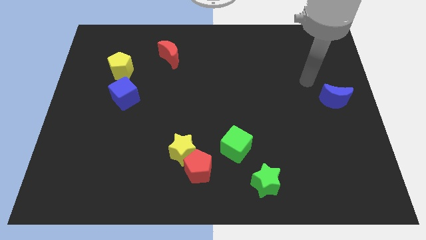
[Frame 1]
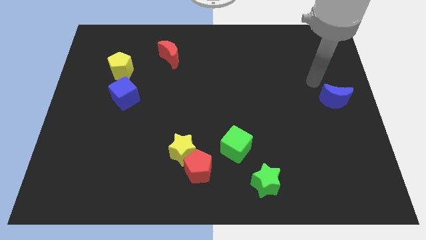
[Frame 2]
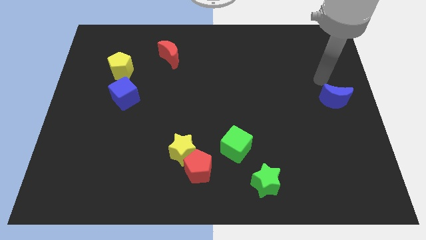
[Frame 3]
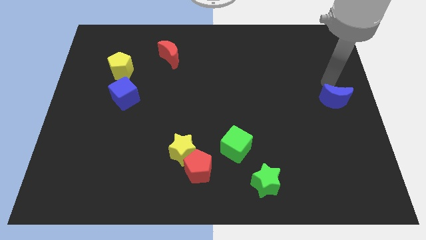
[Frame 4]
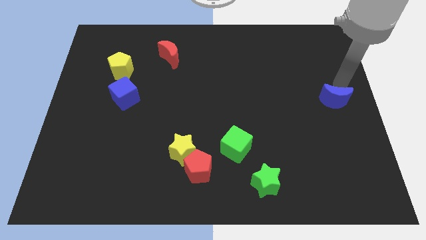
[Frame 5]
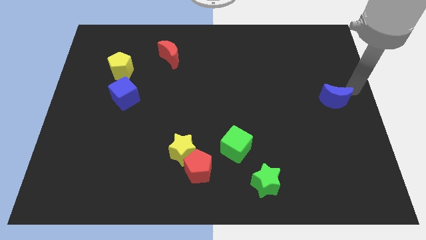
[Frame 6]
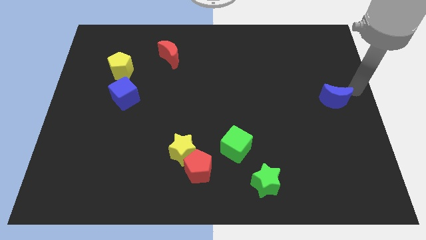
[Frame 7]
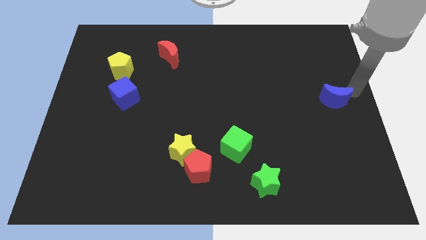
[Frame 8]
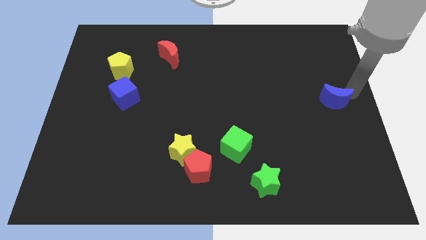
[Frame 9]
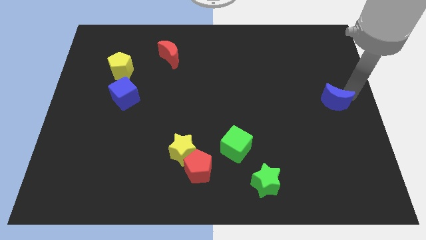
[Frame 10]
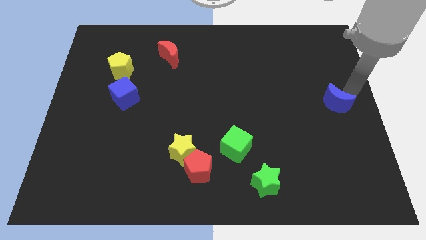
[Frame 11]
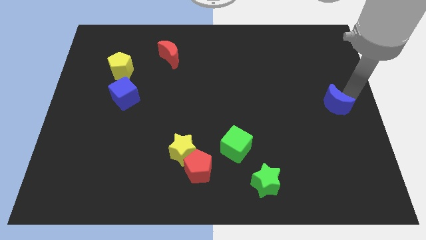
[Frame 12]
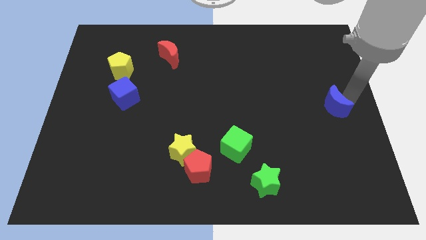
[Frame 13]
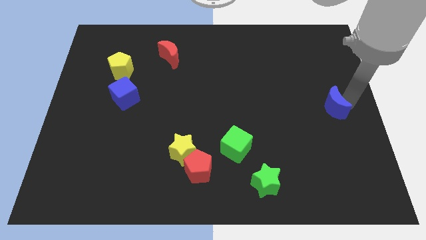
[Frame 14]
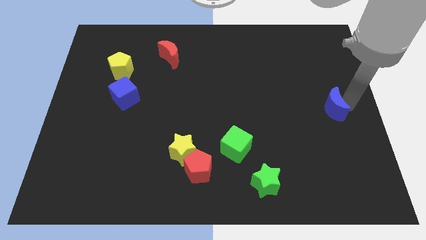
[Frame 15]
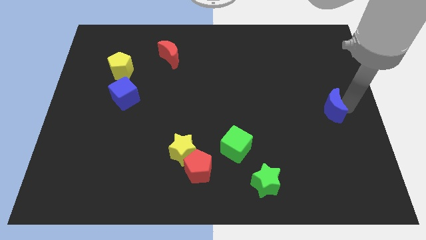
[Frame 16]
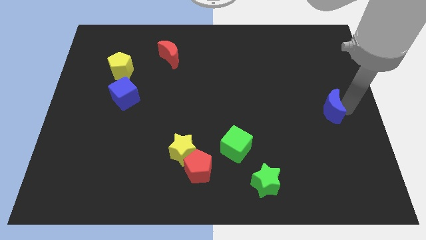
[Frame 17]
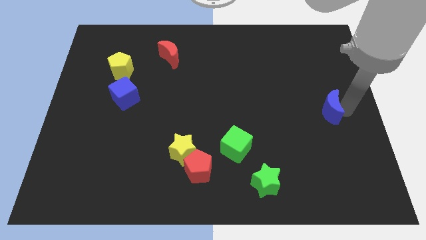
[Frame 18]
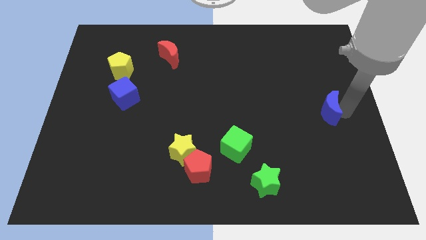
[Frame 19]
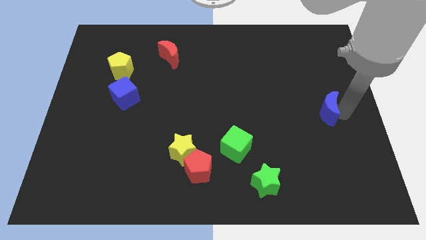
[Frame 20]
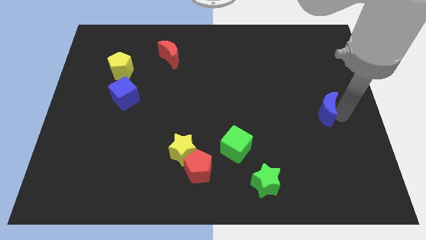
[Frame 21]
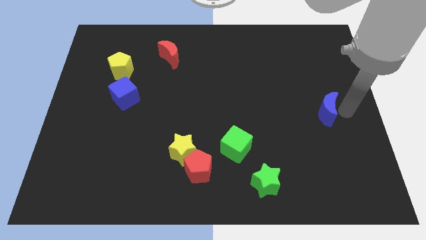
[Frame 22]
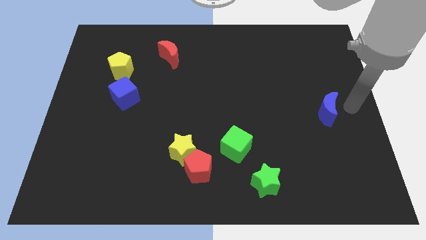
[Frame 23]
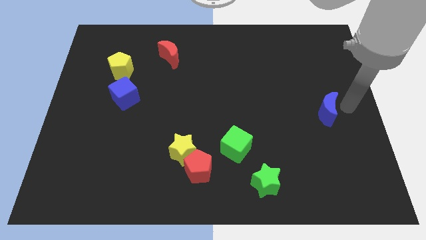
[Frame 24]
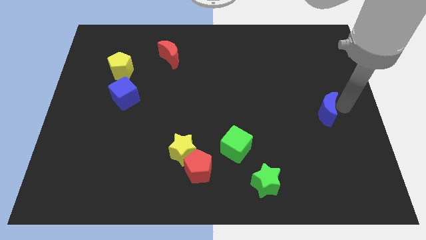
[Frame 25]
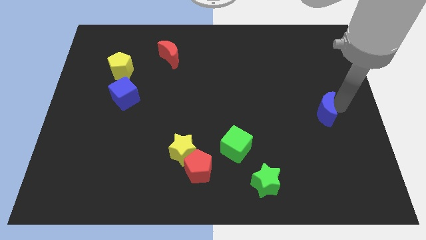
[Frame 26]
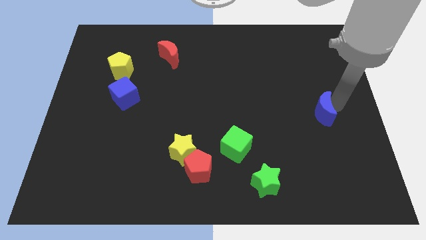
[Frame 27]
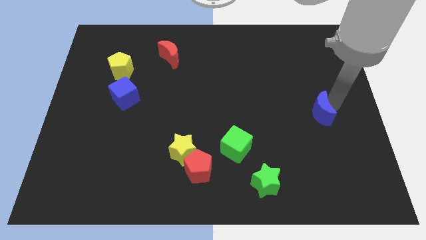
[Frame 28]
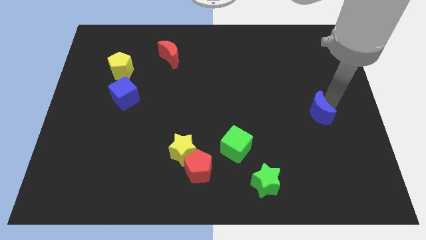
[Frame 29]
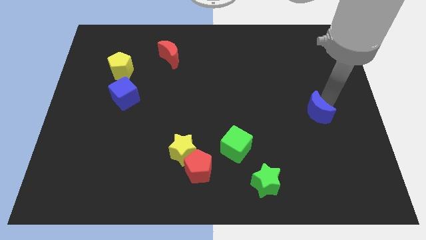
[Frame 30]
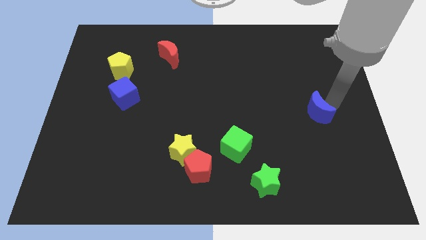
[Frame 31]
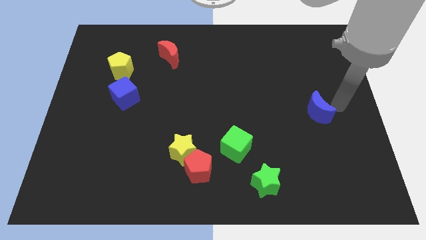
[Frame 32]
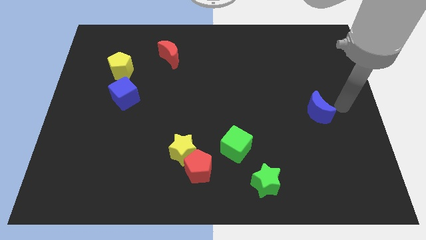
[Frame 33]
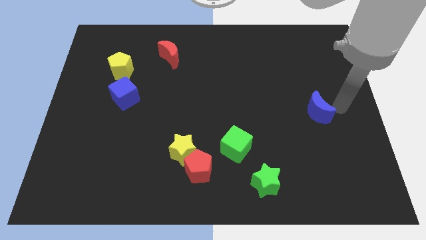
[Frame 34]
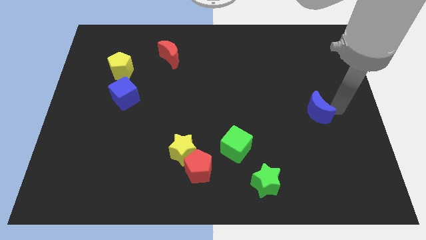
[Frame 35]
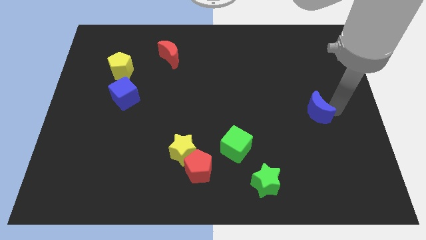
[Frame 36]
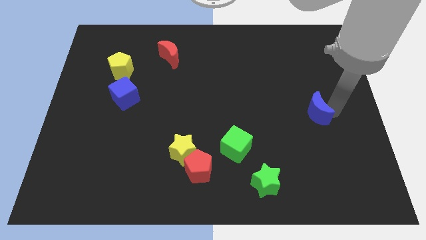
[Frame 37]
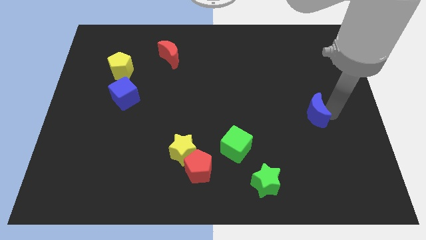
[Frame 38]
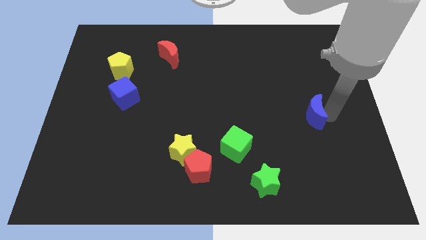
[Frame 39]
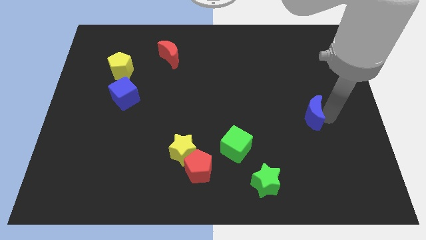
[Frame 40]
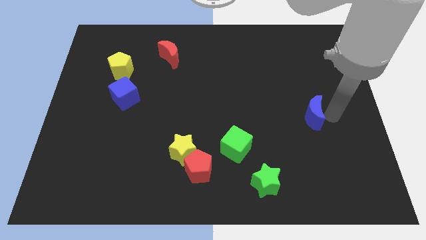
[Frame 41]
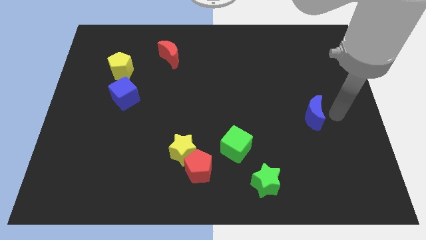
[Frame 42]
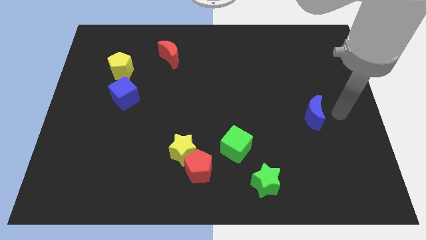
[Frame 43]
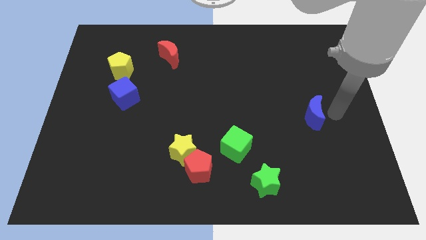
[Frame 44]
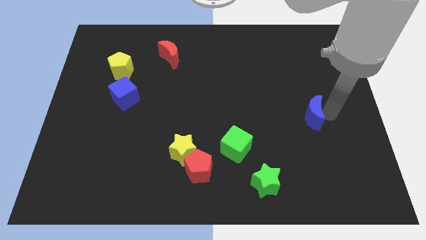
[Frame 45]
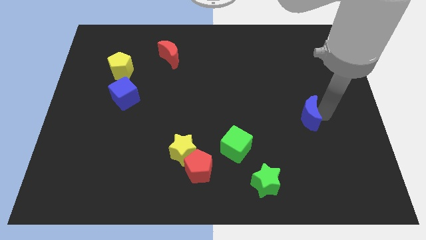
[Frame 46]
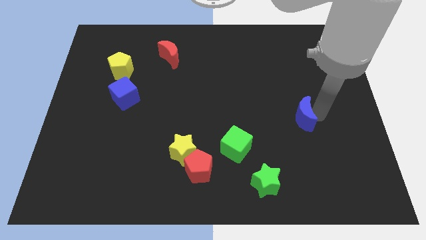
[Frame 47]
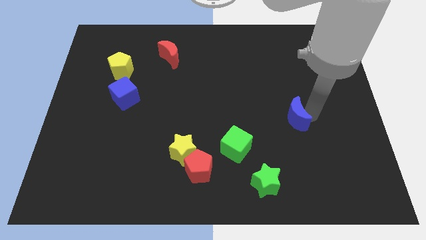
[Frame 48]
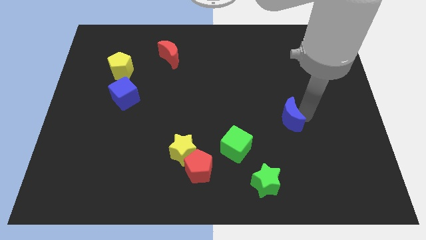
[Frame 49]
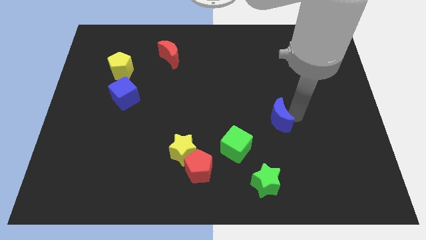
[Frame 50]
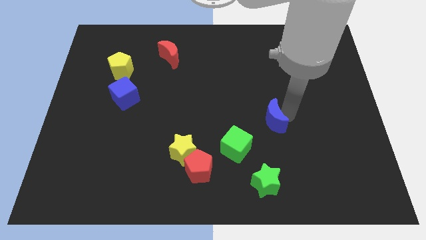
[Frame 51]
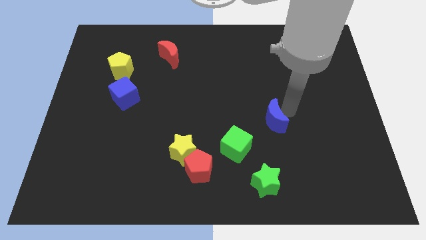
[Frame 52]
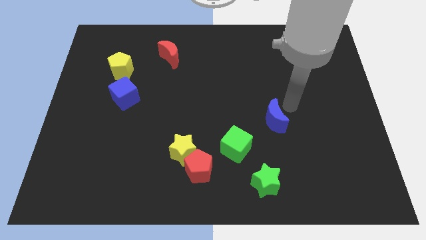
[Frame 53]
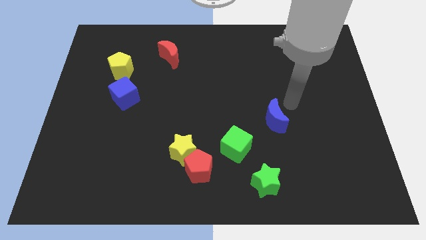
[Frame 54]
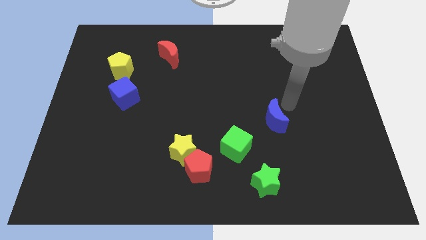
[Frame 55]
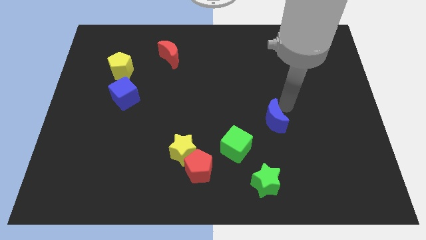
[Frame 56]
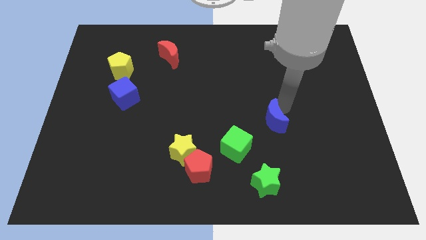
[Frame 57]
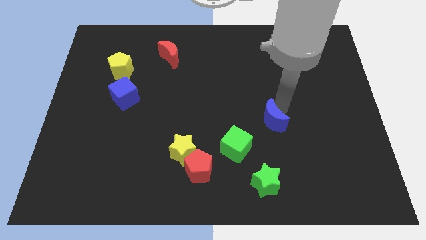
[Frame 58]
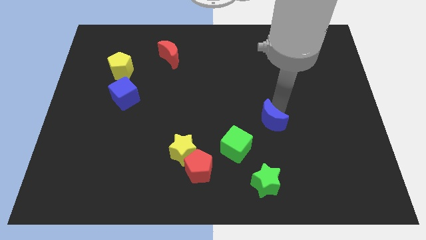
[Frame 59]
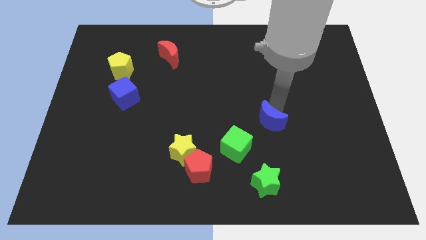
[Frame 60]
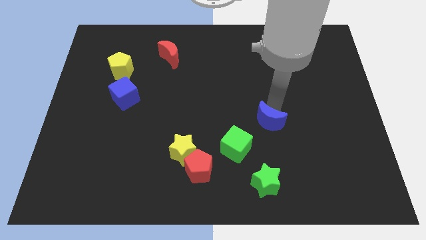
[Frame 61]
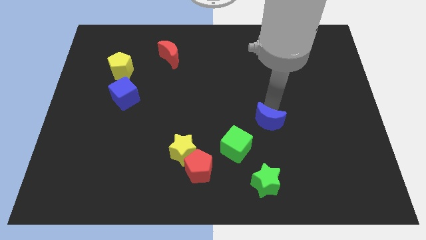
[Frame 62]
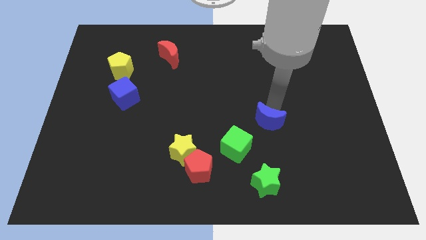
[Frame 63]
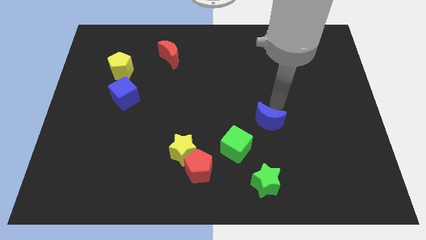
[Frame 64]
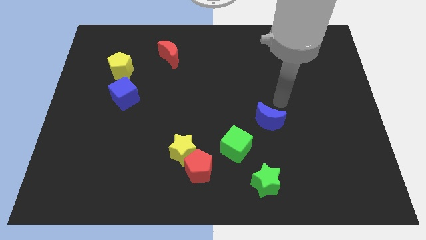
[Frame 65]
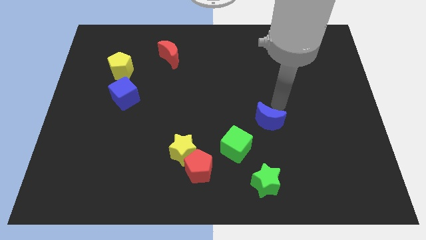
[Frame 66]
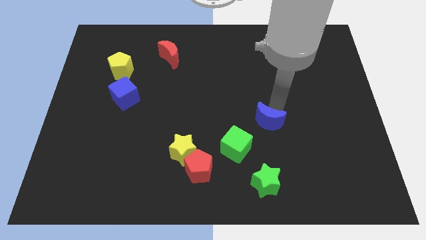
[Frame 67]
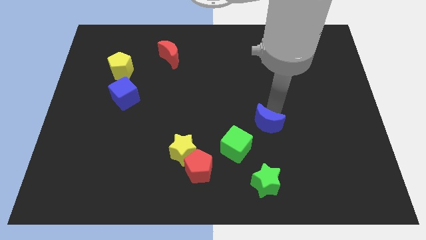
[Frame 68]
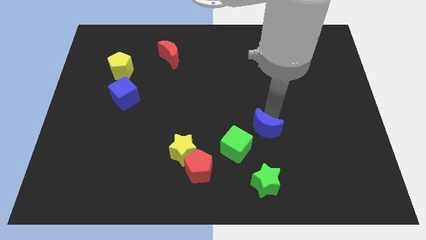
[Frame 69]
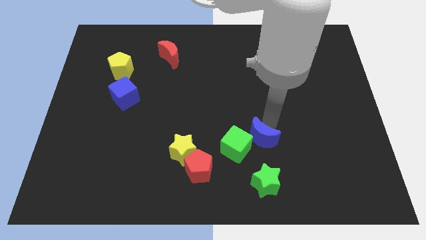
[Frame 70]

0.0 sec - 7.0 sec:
put the blue moon towards the green cube

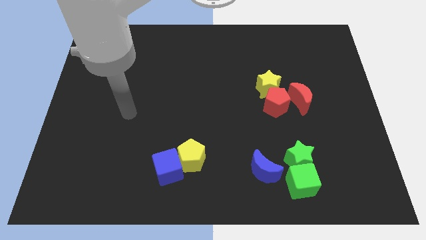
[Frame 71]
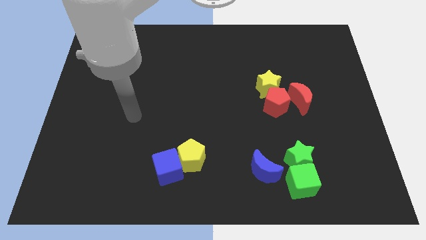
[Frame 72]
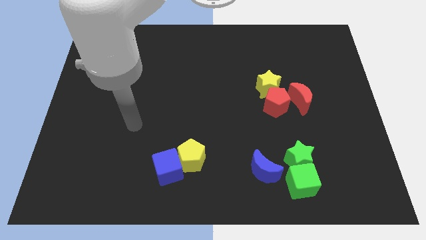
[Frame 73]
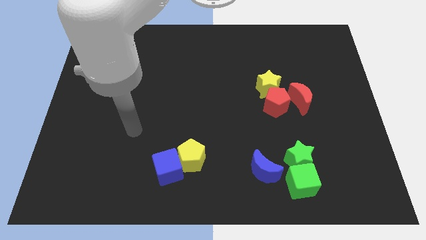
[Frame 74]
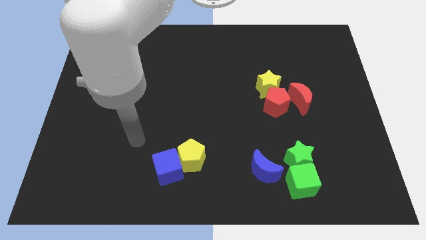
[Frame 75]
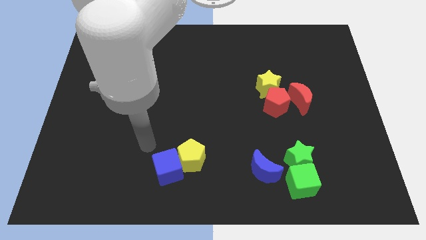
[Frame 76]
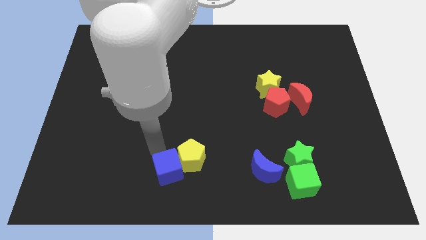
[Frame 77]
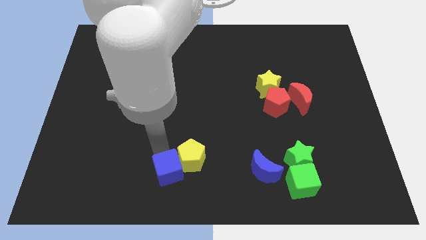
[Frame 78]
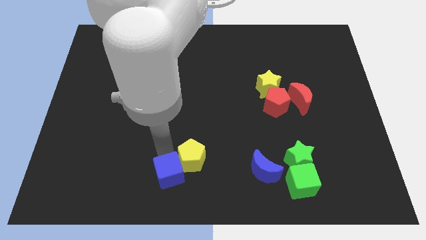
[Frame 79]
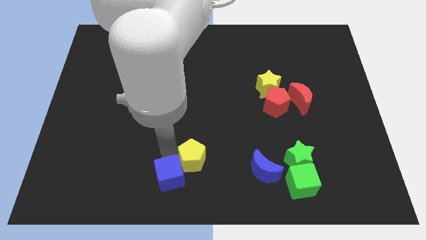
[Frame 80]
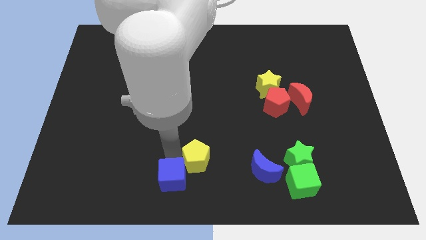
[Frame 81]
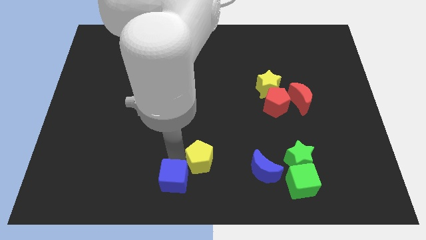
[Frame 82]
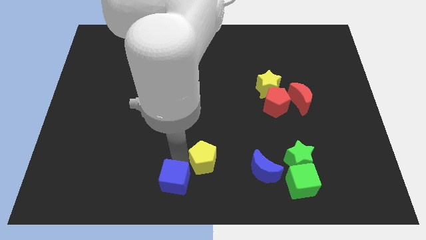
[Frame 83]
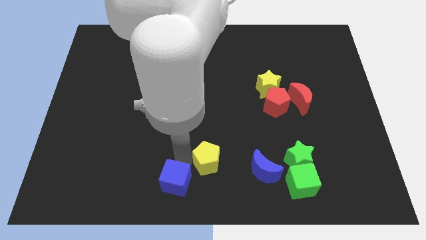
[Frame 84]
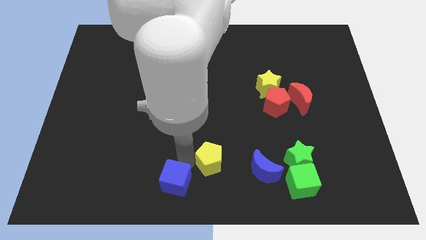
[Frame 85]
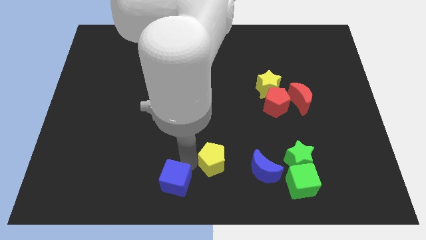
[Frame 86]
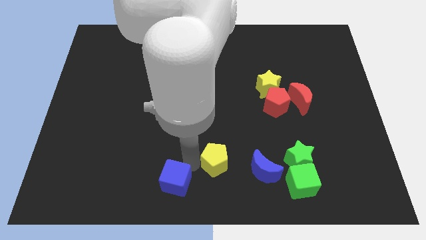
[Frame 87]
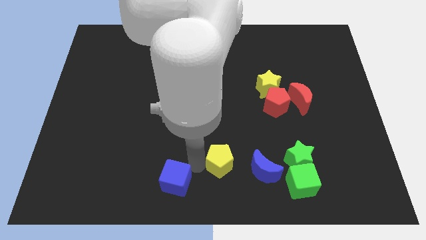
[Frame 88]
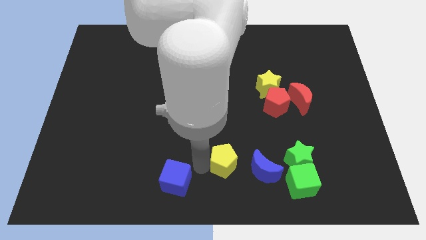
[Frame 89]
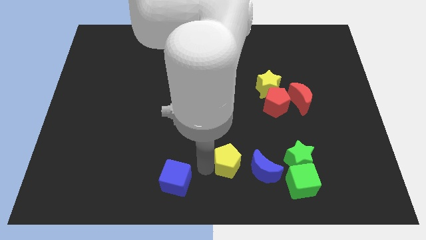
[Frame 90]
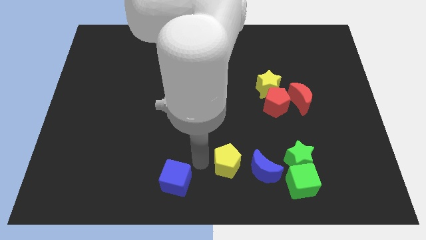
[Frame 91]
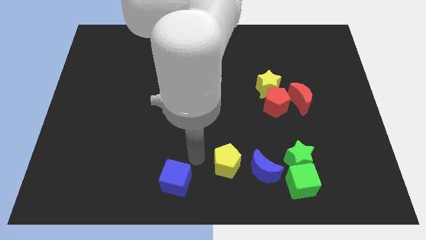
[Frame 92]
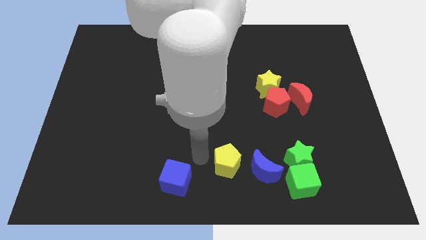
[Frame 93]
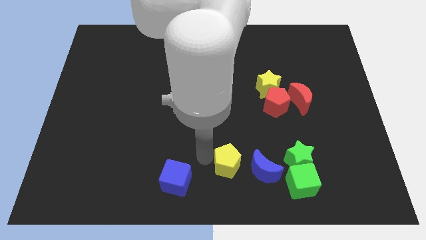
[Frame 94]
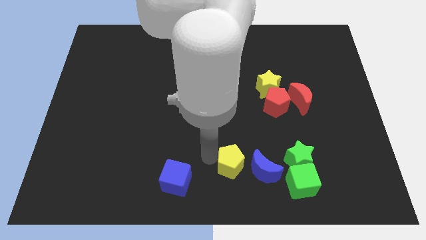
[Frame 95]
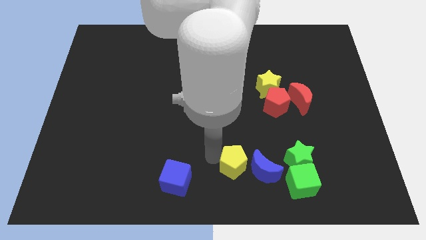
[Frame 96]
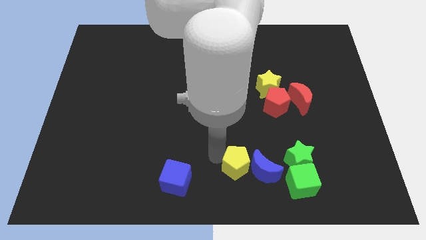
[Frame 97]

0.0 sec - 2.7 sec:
push the yellow pentagon towards the blue moon
